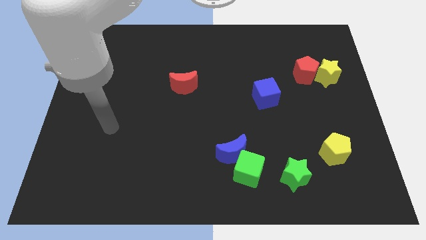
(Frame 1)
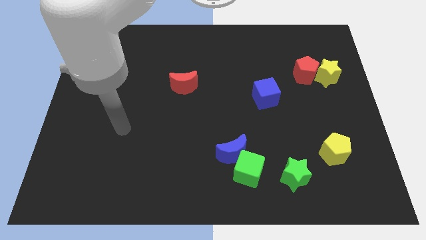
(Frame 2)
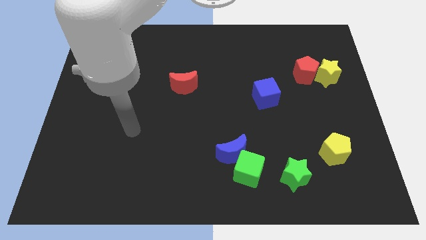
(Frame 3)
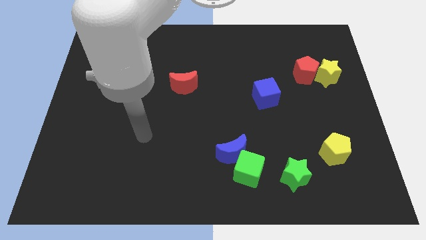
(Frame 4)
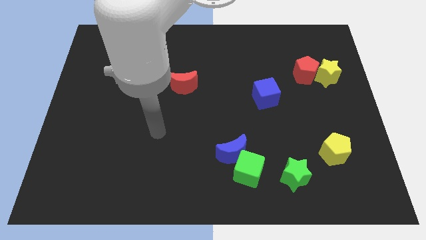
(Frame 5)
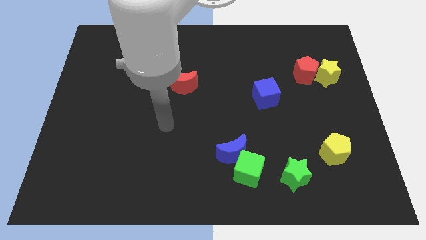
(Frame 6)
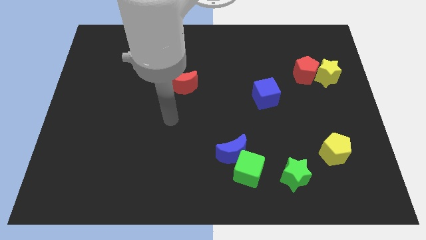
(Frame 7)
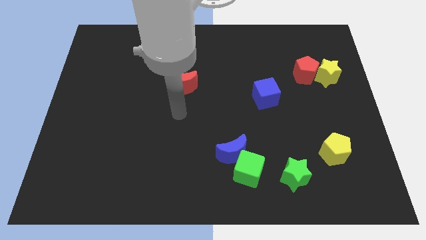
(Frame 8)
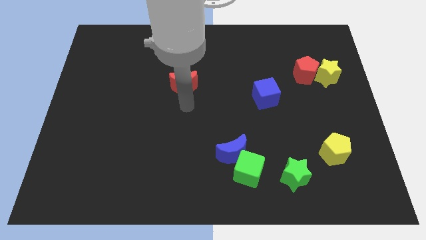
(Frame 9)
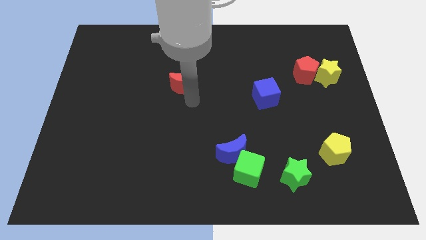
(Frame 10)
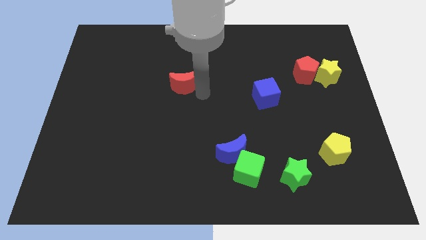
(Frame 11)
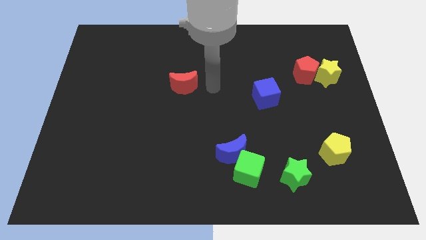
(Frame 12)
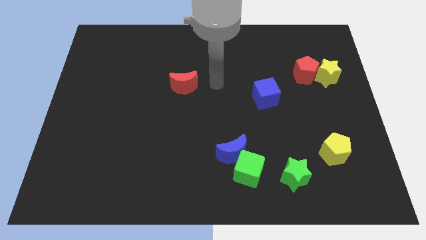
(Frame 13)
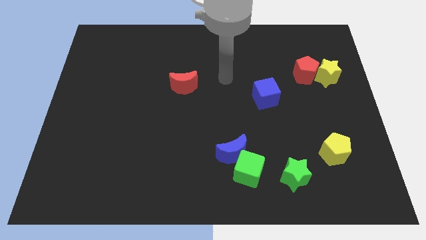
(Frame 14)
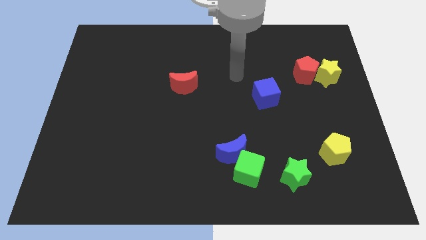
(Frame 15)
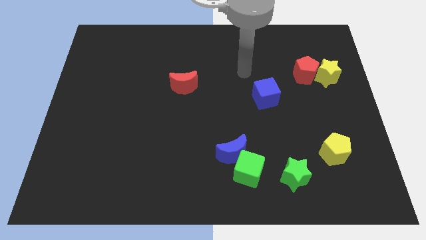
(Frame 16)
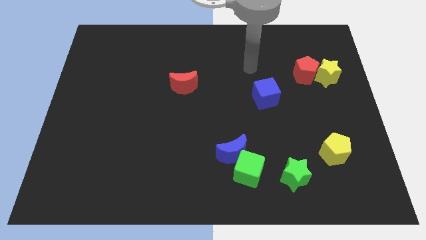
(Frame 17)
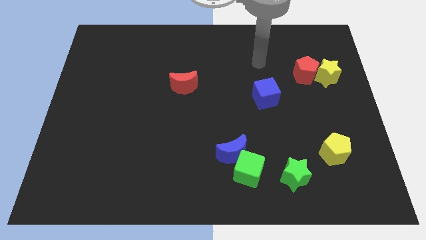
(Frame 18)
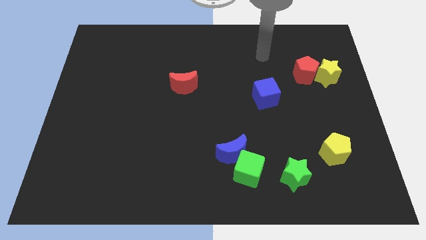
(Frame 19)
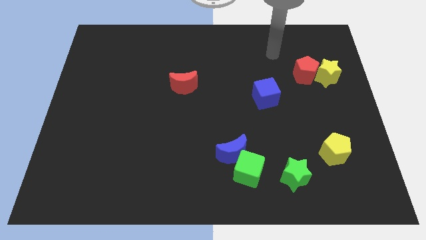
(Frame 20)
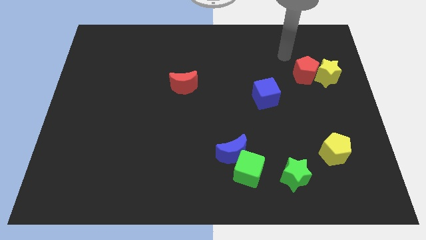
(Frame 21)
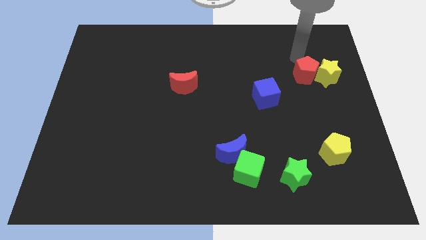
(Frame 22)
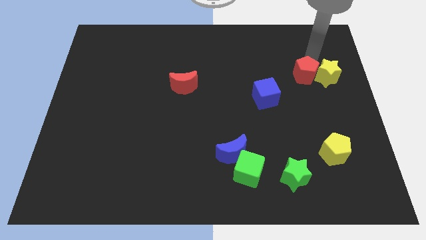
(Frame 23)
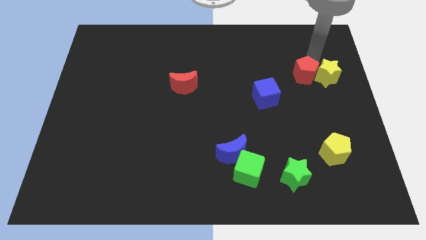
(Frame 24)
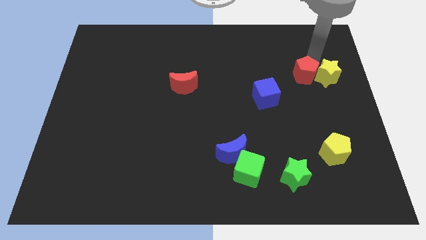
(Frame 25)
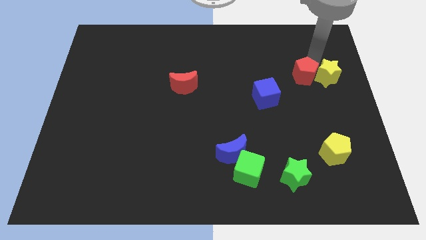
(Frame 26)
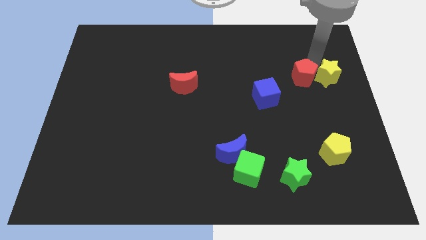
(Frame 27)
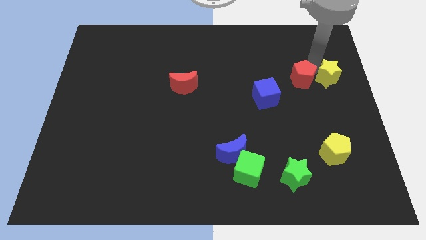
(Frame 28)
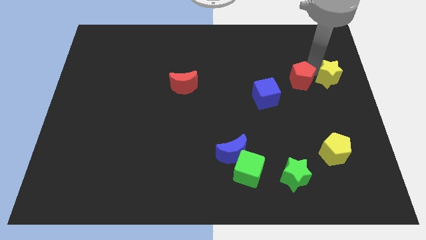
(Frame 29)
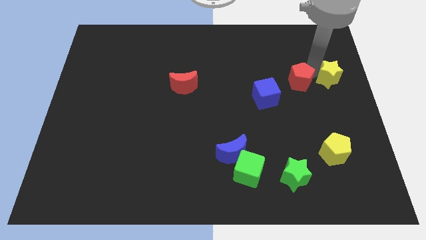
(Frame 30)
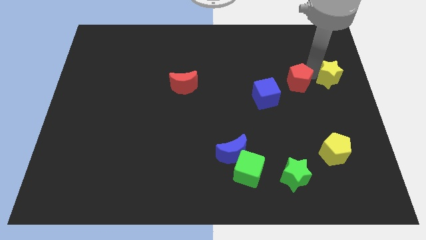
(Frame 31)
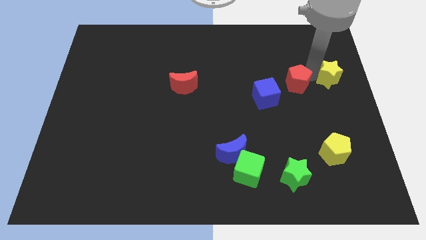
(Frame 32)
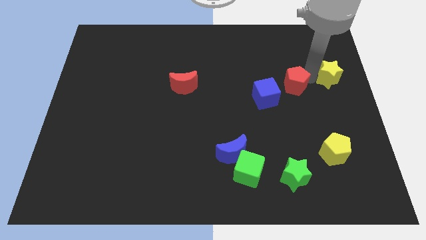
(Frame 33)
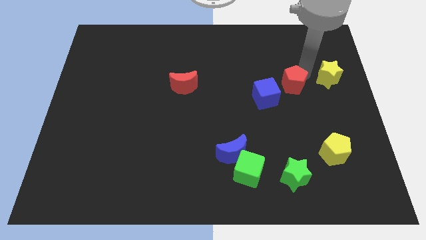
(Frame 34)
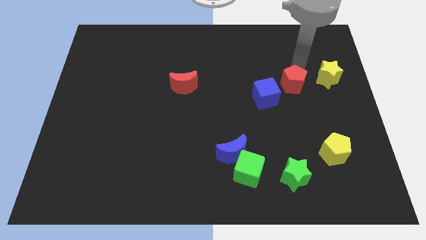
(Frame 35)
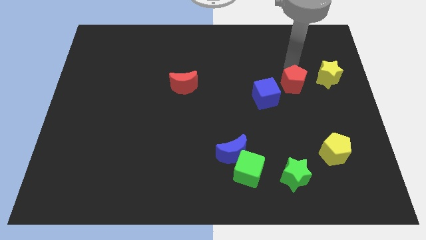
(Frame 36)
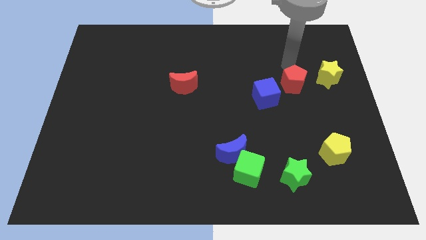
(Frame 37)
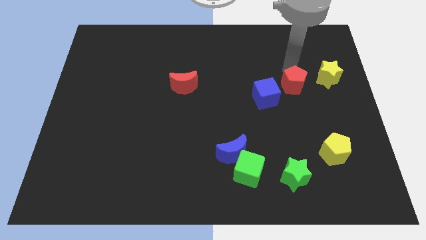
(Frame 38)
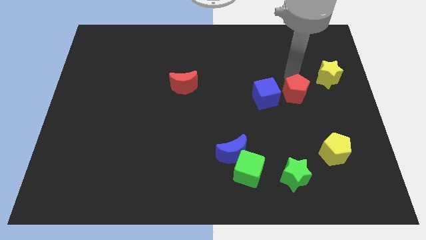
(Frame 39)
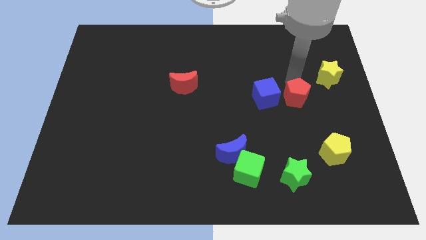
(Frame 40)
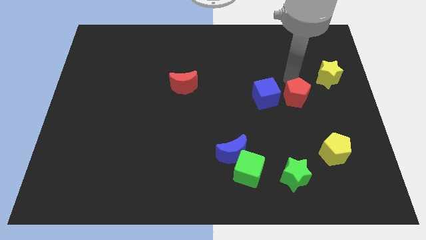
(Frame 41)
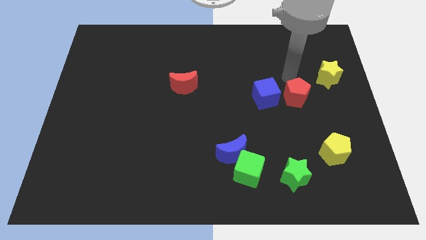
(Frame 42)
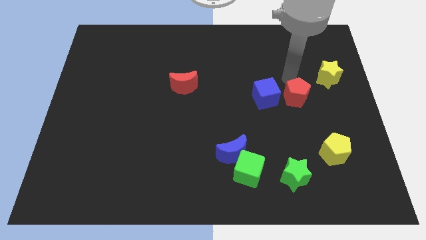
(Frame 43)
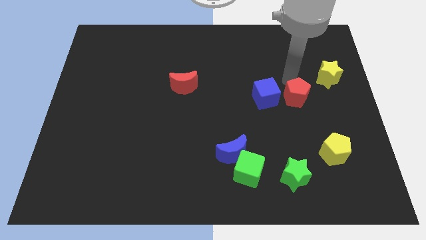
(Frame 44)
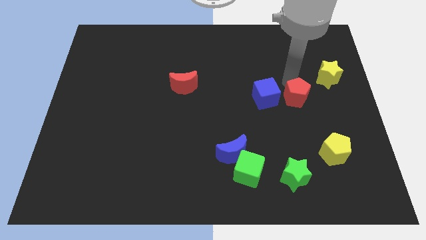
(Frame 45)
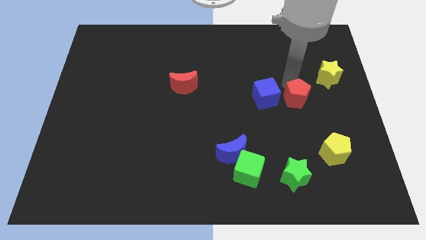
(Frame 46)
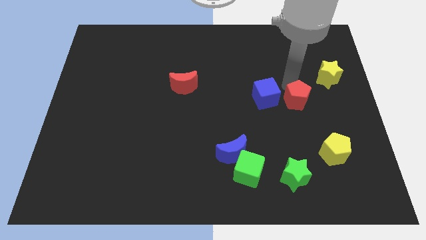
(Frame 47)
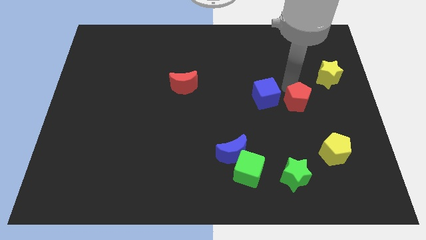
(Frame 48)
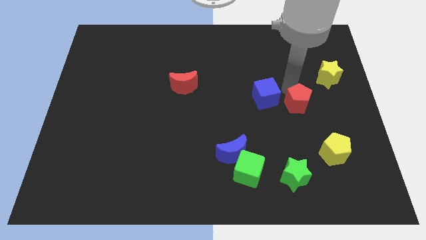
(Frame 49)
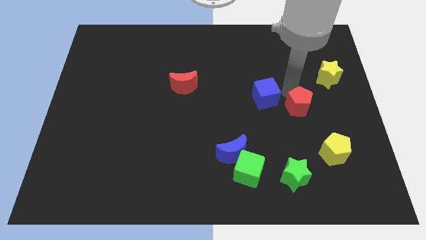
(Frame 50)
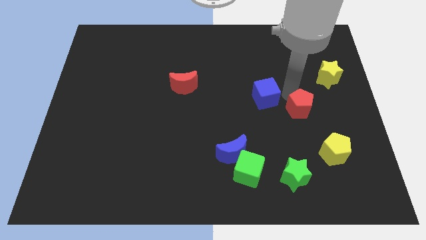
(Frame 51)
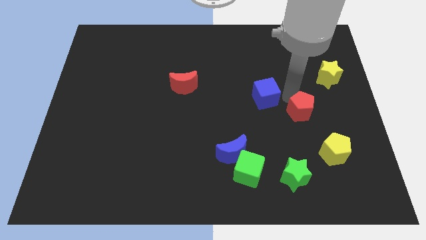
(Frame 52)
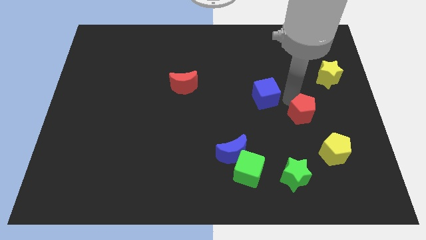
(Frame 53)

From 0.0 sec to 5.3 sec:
slide the red pentagon to the top left side of the yellow pentagon

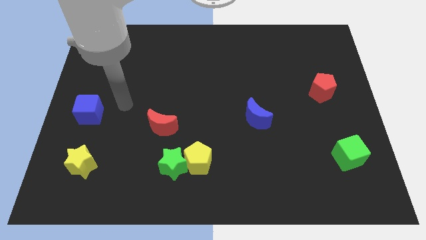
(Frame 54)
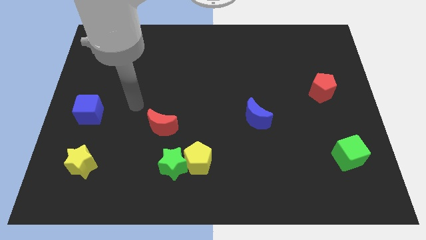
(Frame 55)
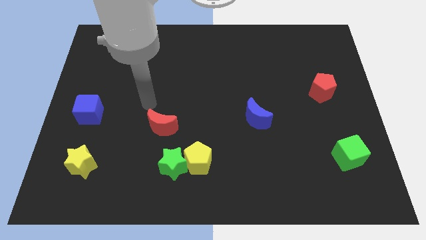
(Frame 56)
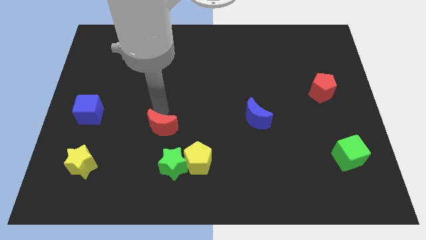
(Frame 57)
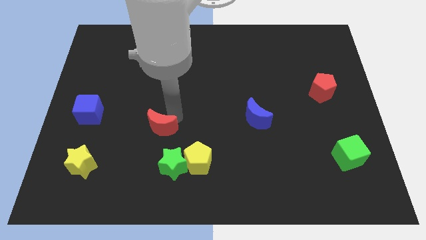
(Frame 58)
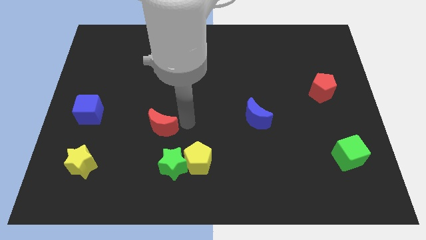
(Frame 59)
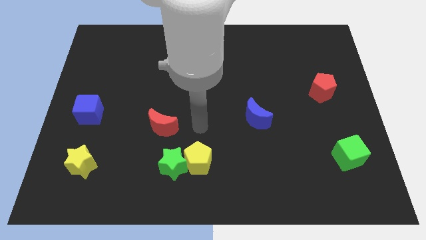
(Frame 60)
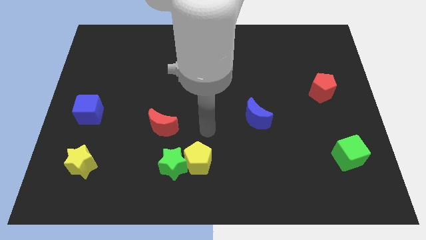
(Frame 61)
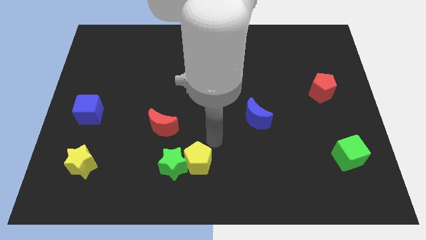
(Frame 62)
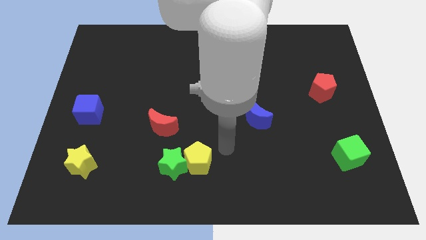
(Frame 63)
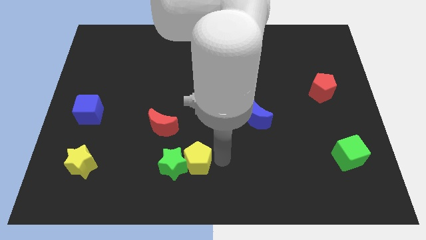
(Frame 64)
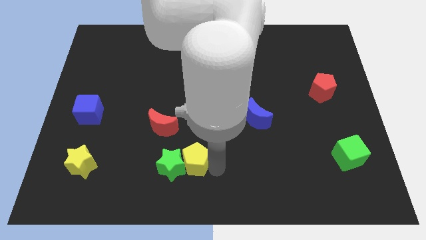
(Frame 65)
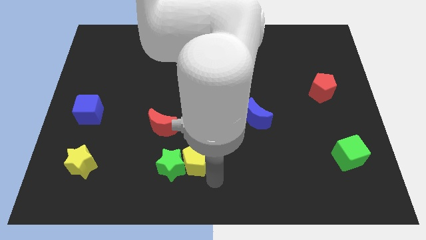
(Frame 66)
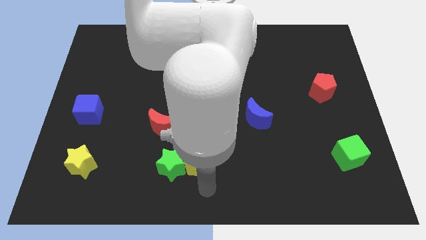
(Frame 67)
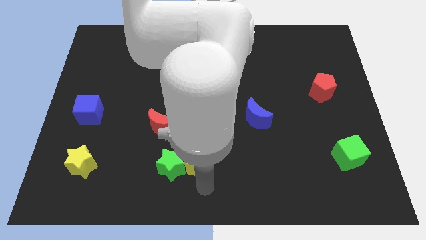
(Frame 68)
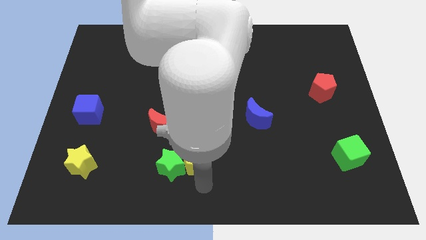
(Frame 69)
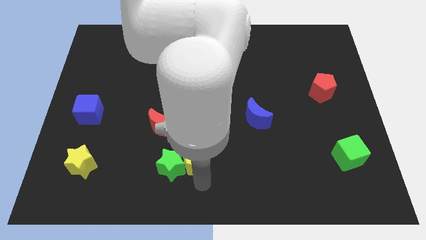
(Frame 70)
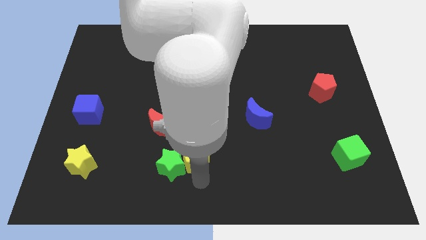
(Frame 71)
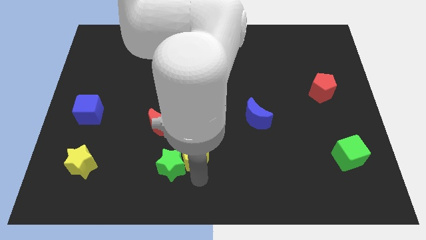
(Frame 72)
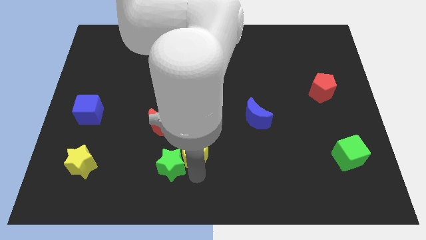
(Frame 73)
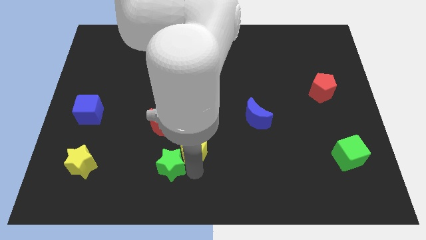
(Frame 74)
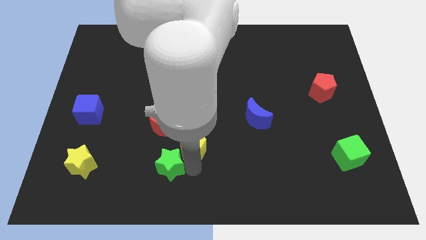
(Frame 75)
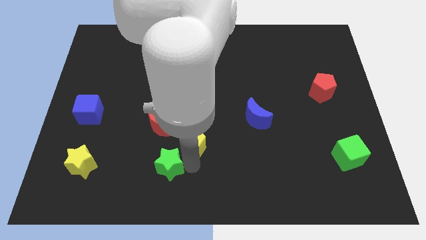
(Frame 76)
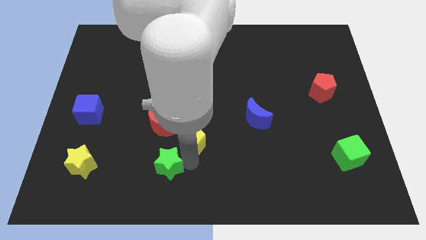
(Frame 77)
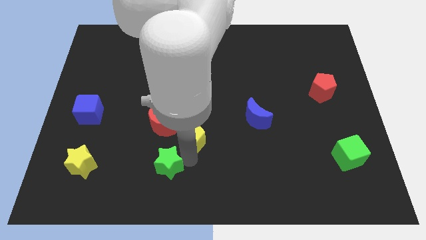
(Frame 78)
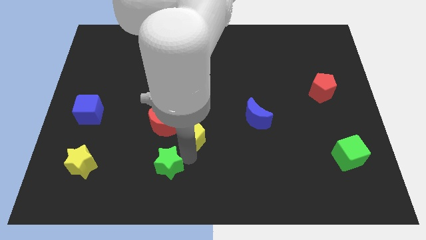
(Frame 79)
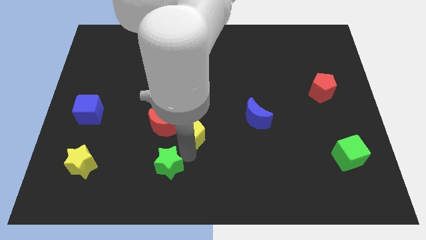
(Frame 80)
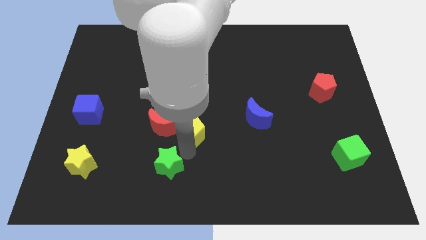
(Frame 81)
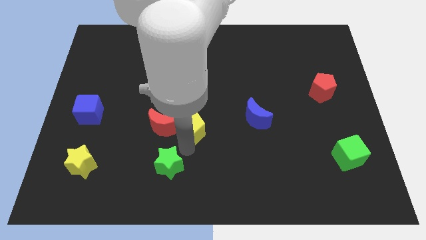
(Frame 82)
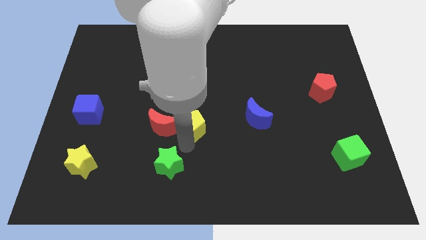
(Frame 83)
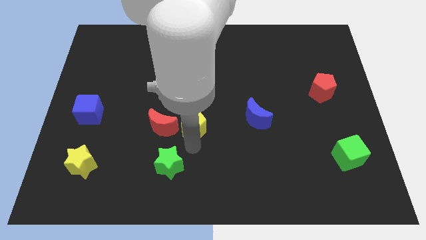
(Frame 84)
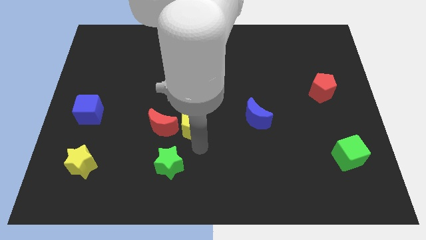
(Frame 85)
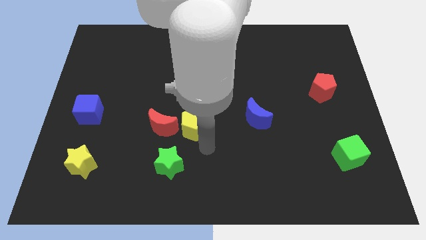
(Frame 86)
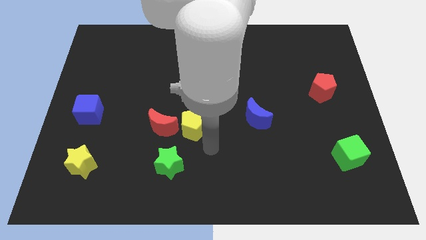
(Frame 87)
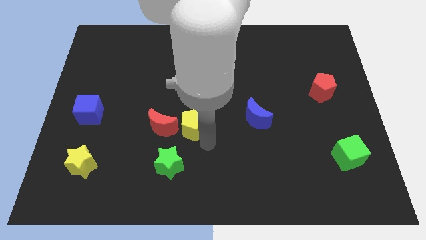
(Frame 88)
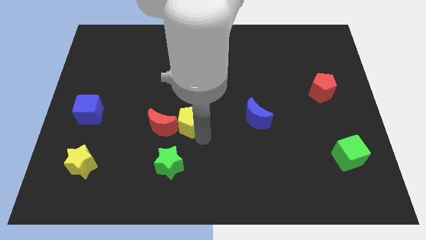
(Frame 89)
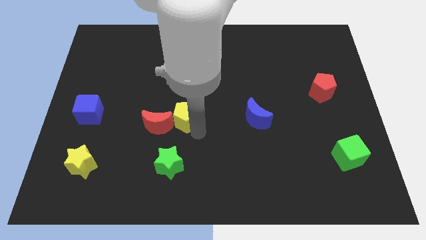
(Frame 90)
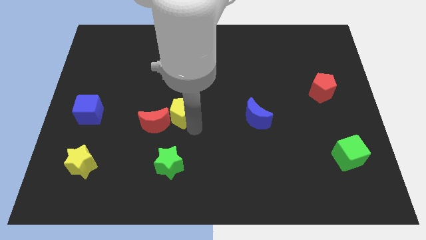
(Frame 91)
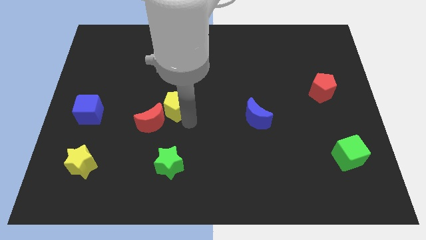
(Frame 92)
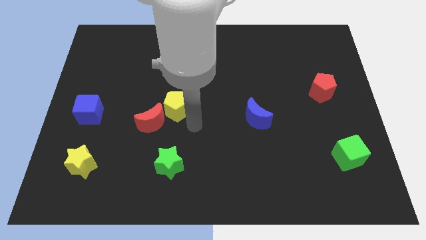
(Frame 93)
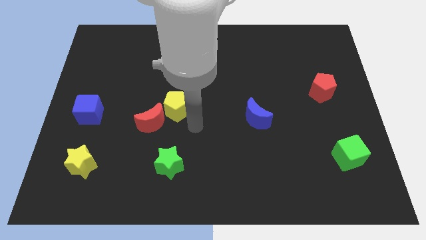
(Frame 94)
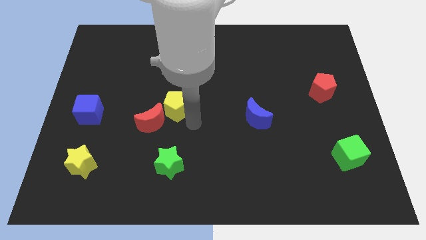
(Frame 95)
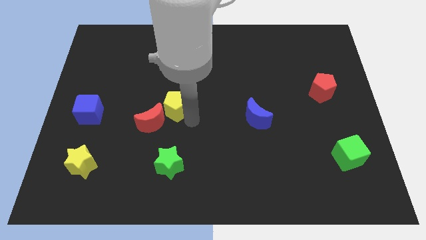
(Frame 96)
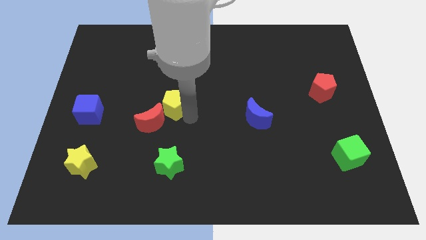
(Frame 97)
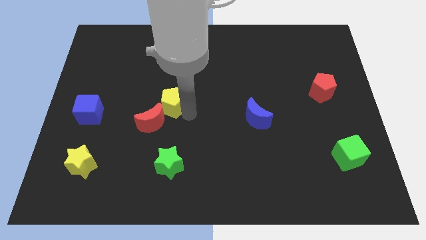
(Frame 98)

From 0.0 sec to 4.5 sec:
push the yellow pentagon to the top side of the red moon
